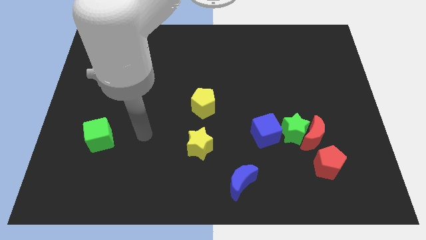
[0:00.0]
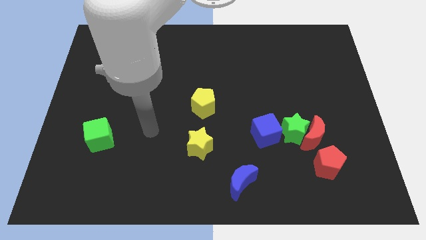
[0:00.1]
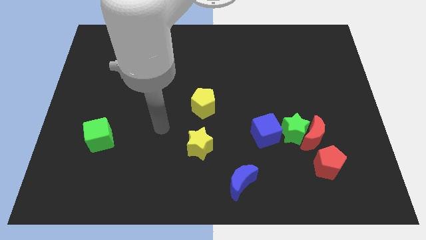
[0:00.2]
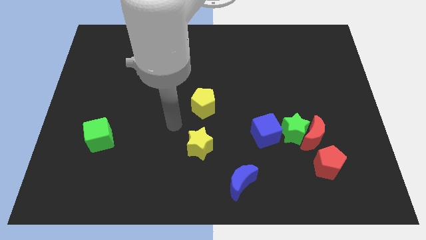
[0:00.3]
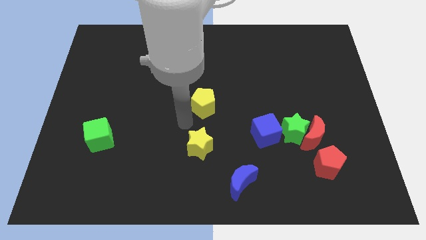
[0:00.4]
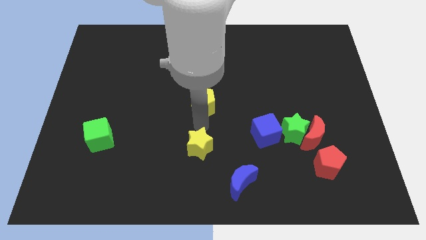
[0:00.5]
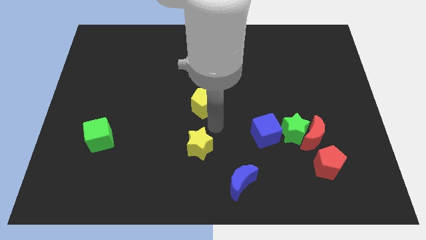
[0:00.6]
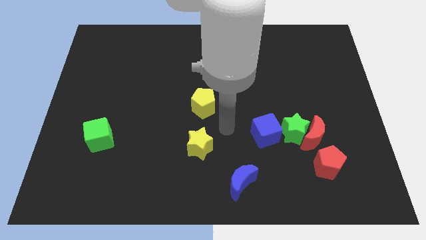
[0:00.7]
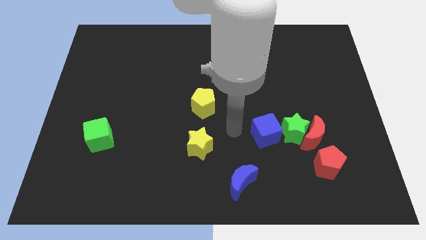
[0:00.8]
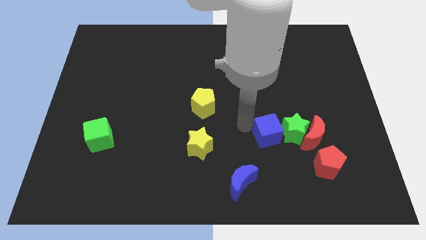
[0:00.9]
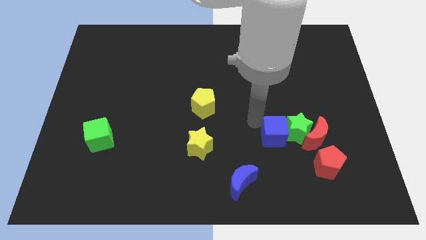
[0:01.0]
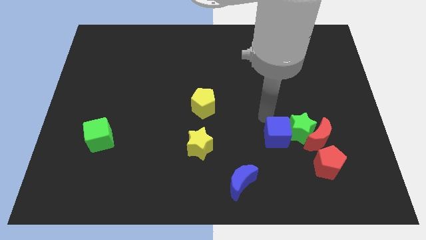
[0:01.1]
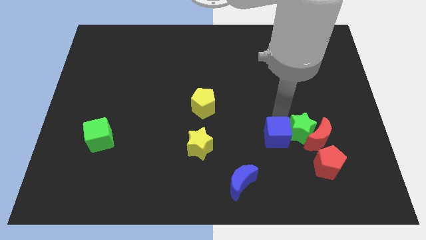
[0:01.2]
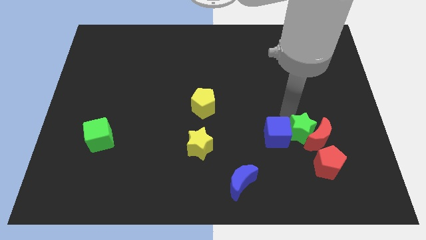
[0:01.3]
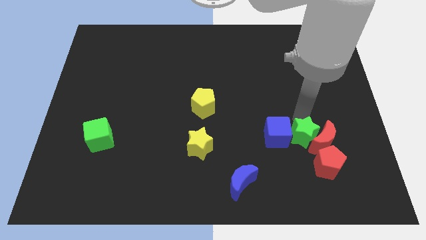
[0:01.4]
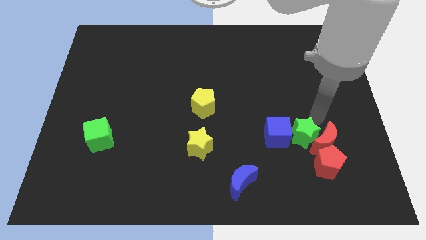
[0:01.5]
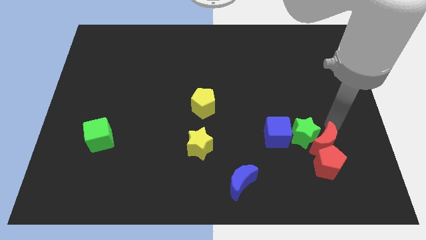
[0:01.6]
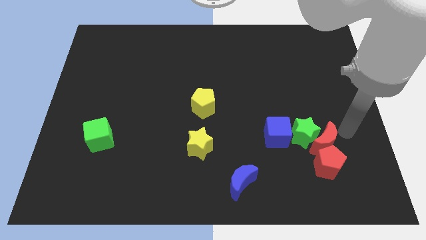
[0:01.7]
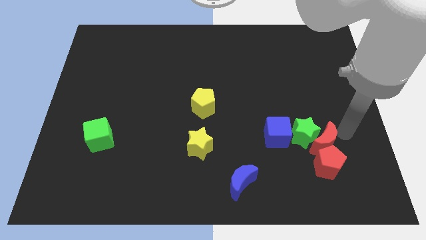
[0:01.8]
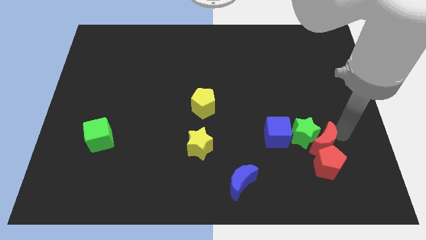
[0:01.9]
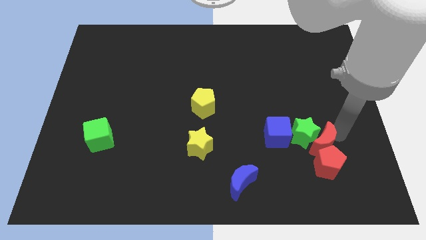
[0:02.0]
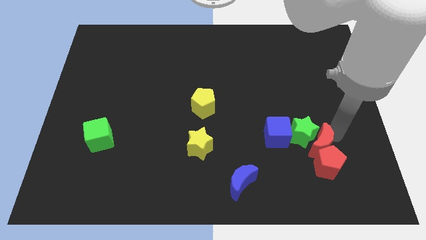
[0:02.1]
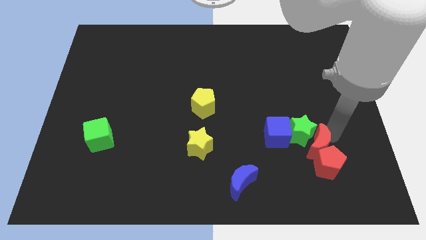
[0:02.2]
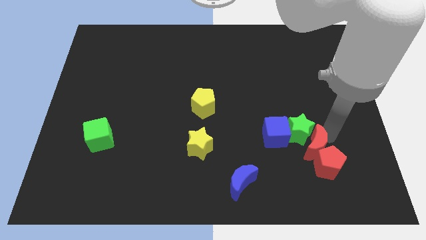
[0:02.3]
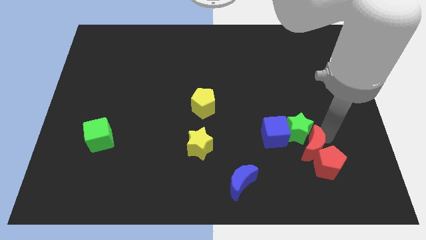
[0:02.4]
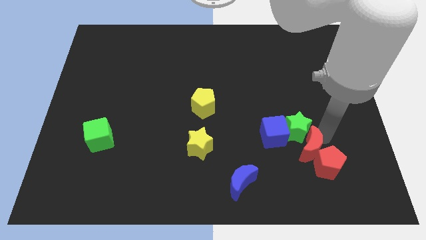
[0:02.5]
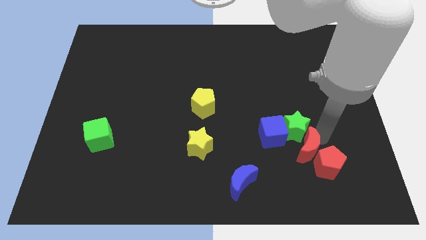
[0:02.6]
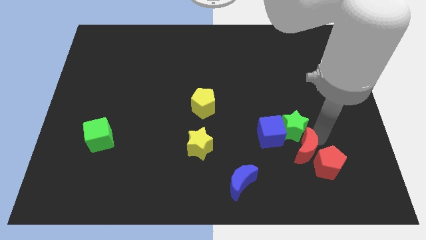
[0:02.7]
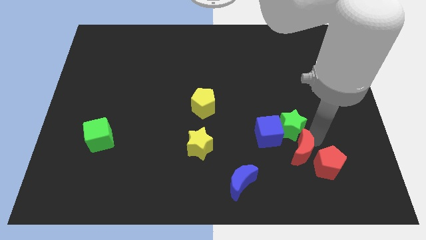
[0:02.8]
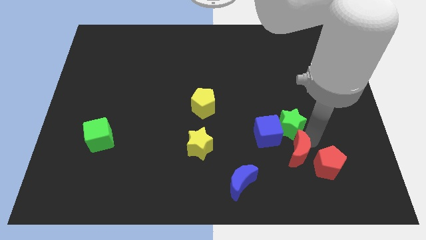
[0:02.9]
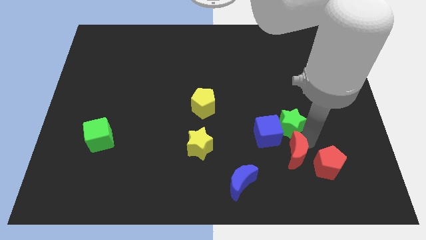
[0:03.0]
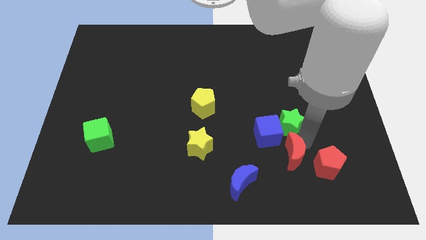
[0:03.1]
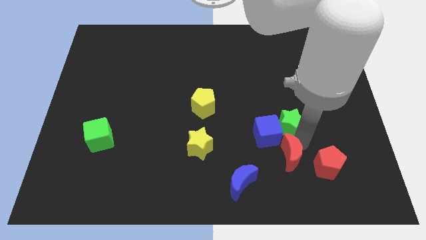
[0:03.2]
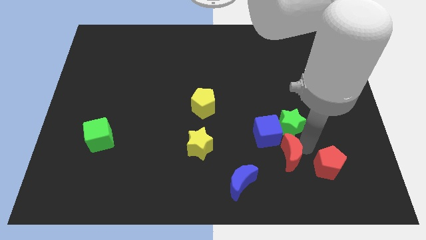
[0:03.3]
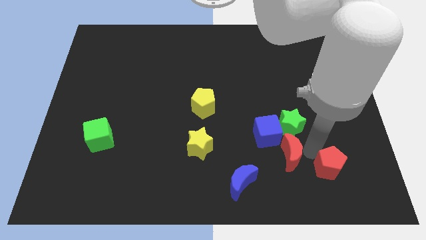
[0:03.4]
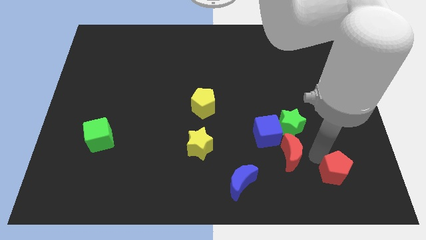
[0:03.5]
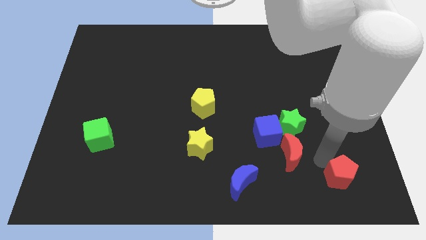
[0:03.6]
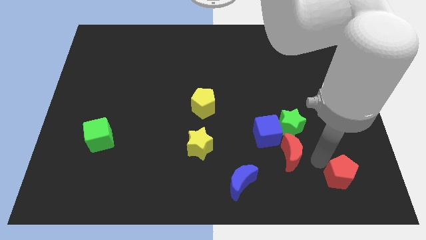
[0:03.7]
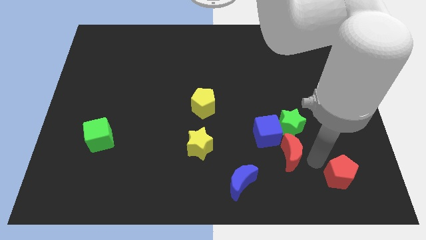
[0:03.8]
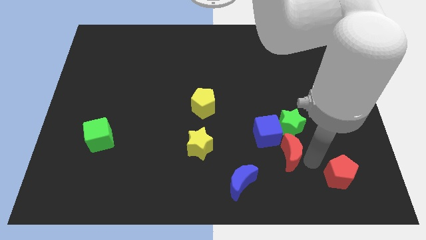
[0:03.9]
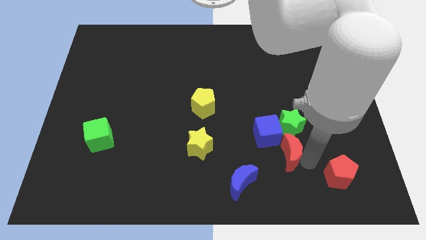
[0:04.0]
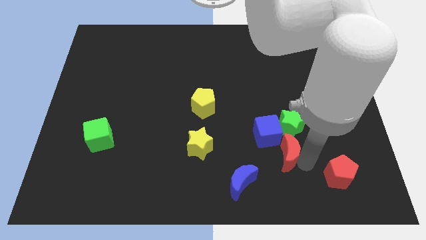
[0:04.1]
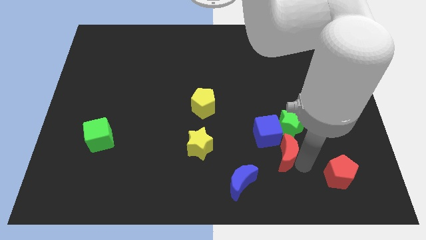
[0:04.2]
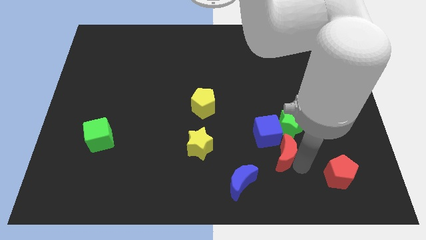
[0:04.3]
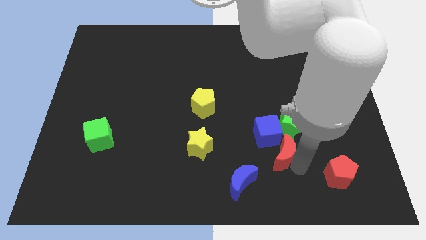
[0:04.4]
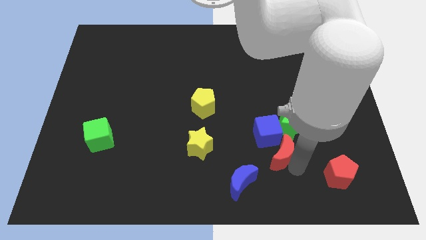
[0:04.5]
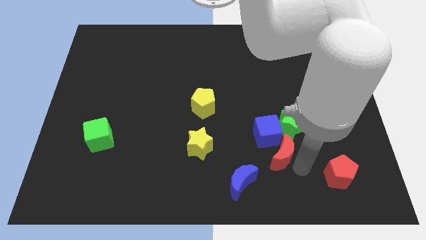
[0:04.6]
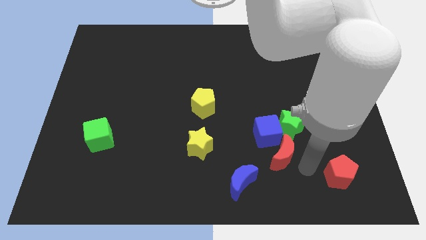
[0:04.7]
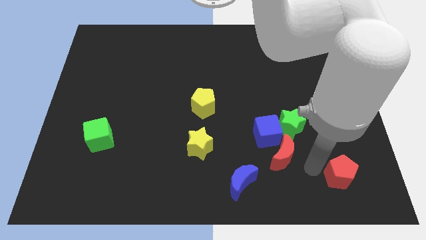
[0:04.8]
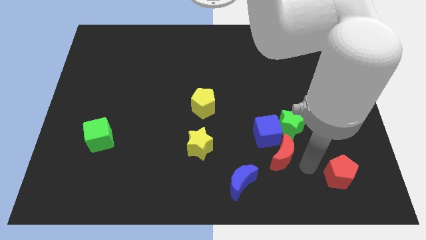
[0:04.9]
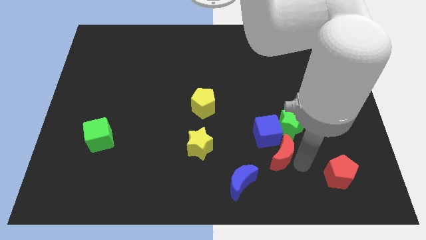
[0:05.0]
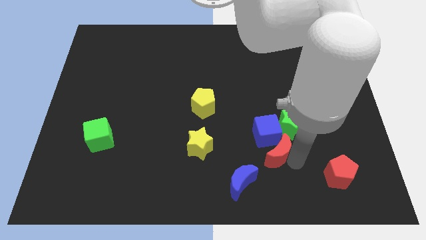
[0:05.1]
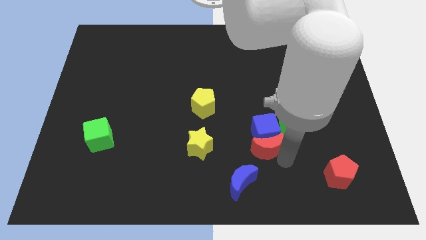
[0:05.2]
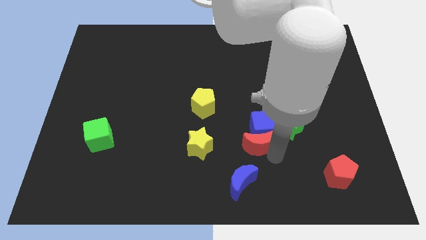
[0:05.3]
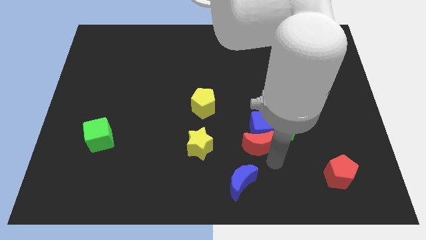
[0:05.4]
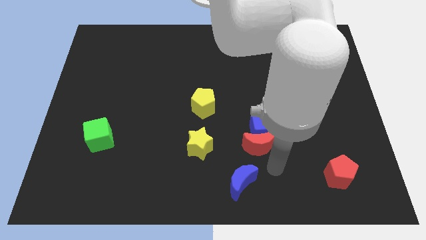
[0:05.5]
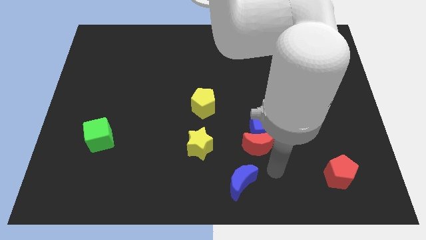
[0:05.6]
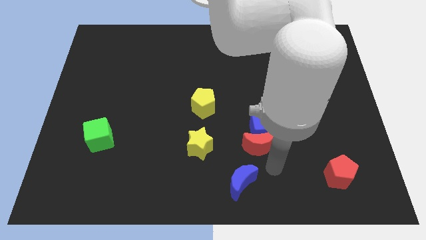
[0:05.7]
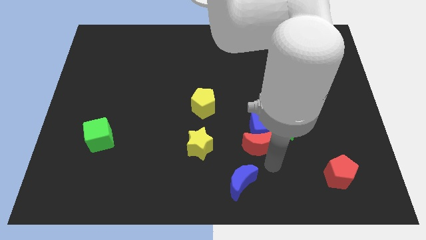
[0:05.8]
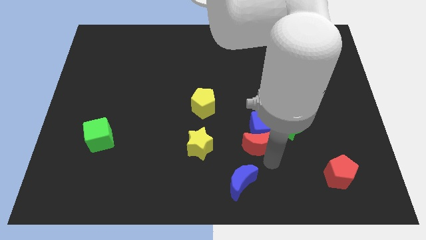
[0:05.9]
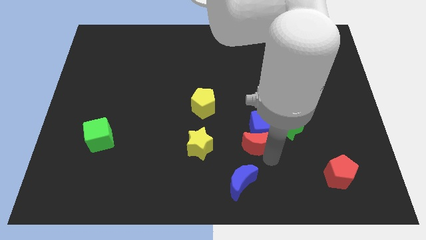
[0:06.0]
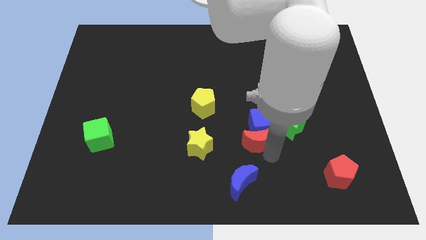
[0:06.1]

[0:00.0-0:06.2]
put the red moon just left of the green star
